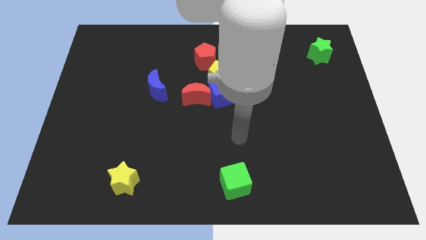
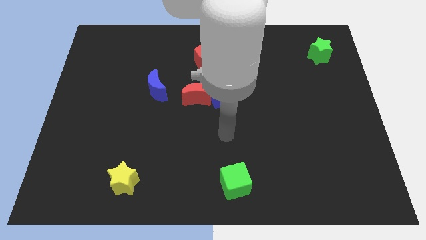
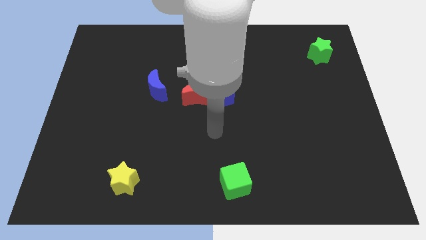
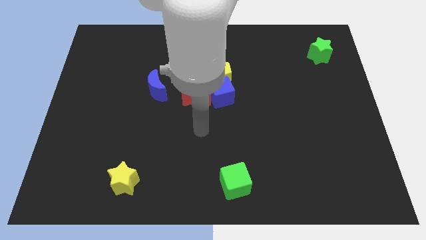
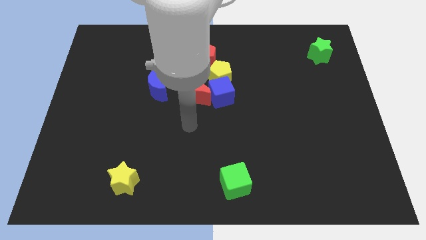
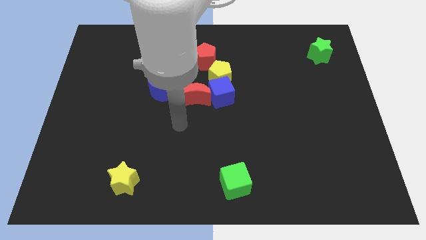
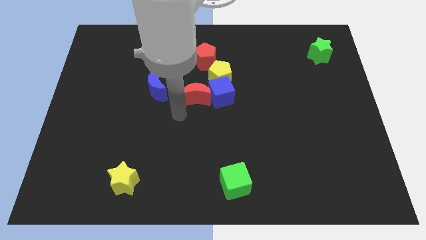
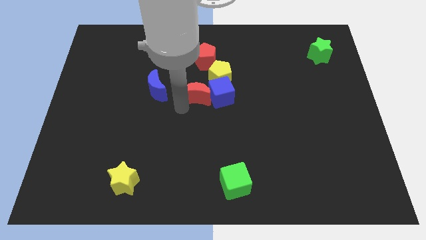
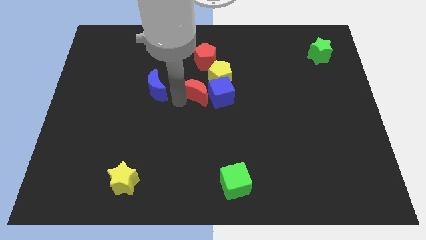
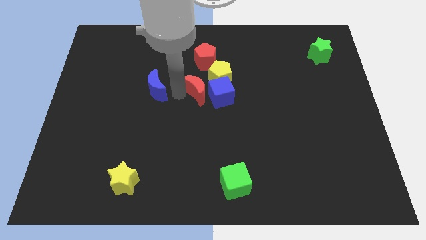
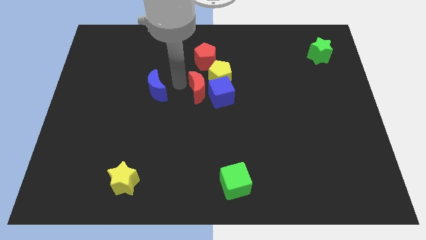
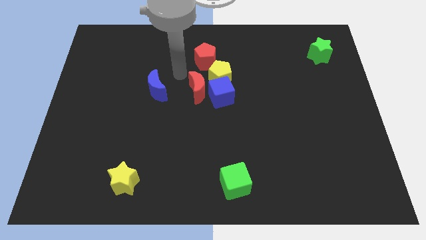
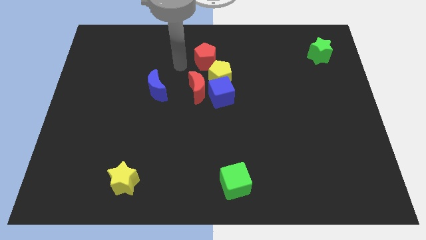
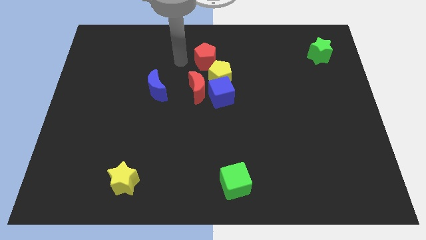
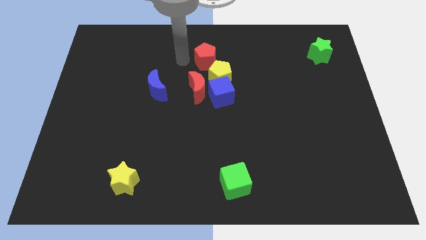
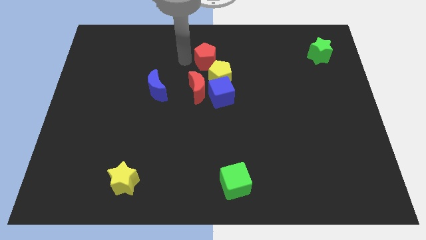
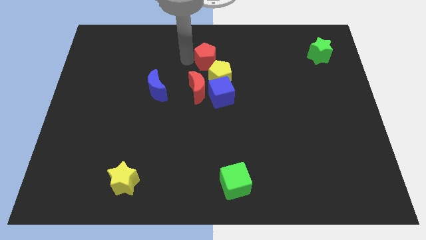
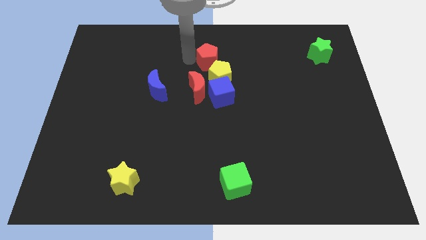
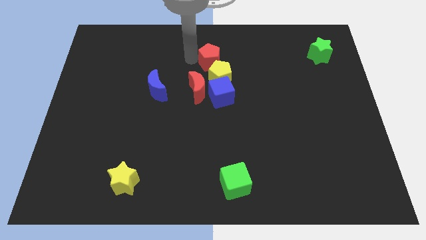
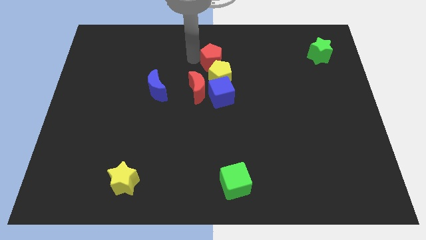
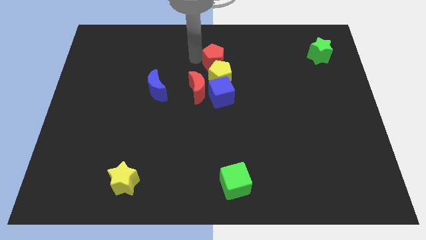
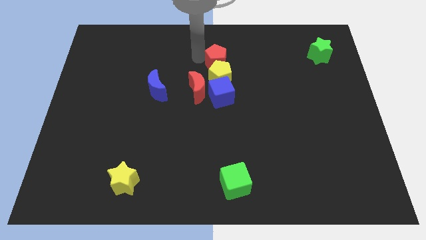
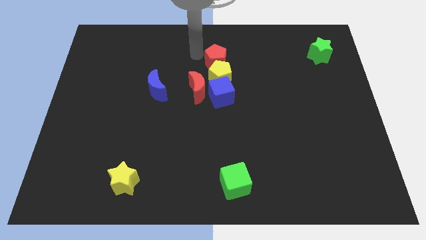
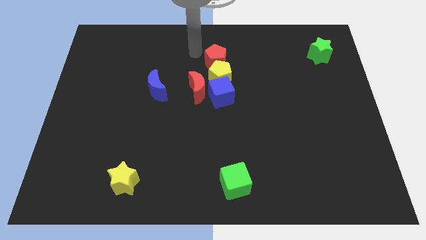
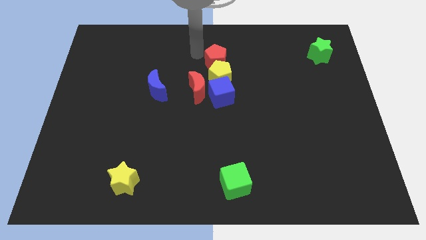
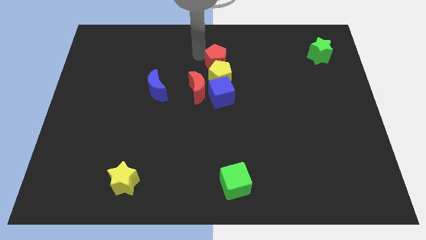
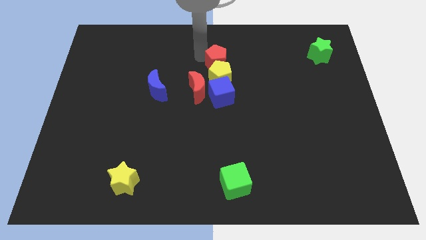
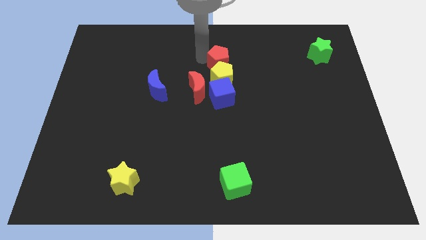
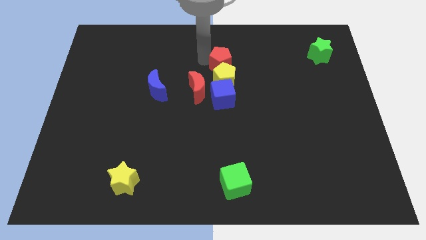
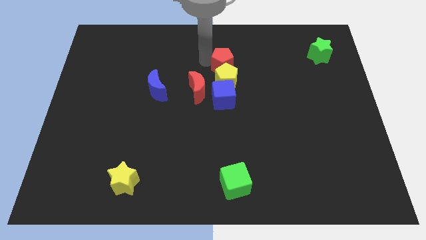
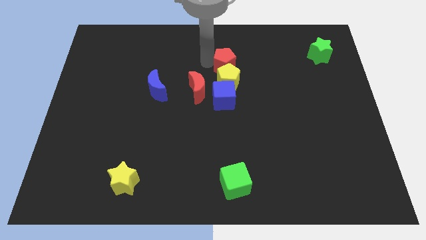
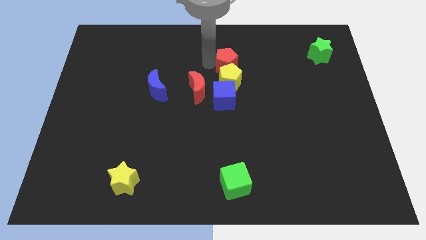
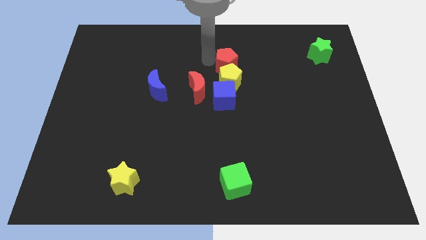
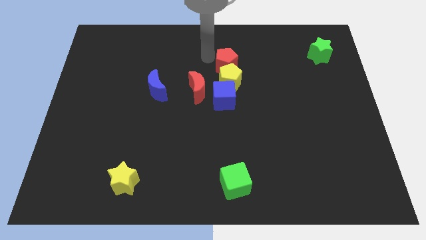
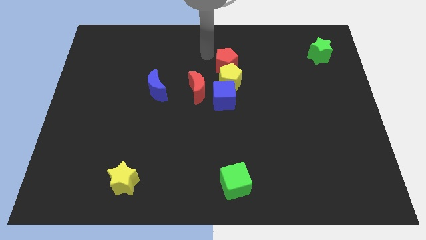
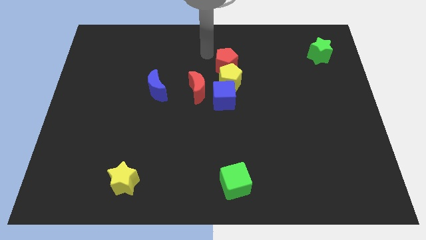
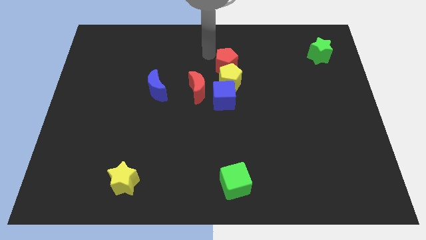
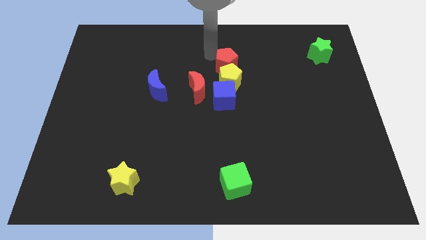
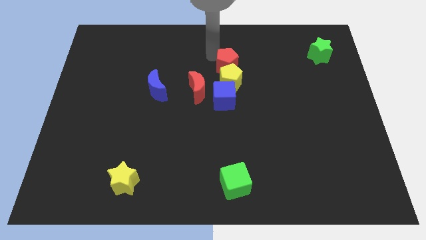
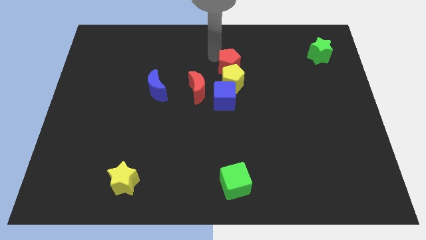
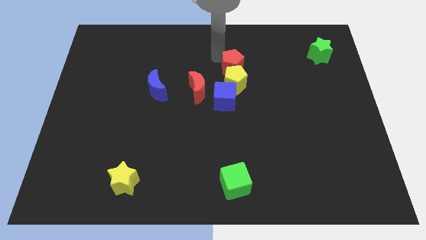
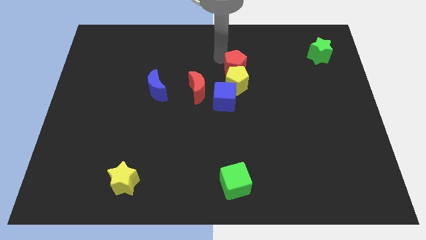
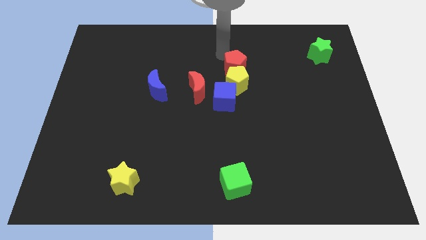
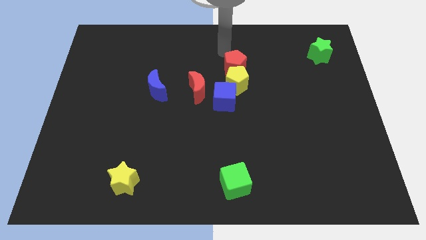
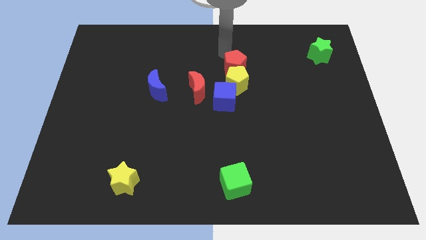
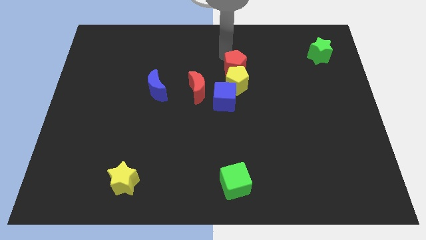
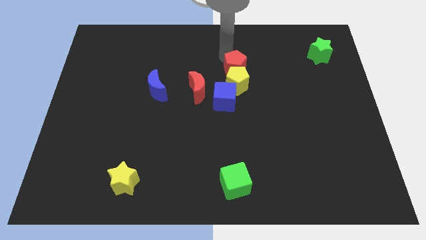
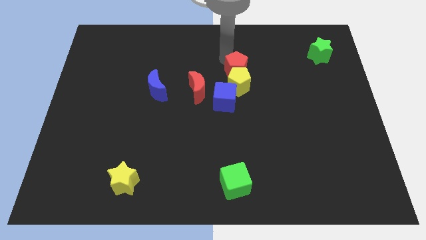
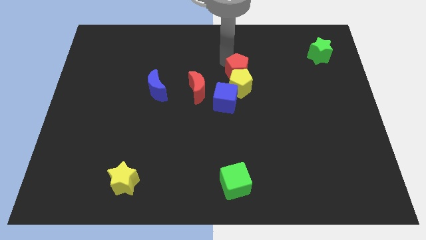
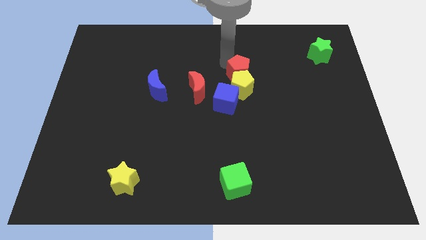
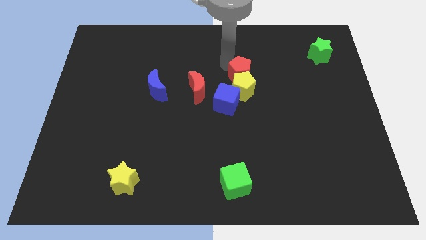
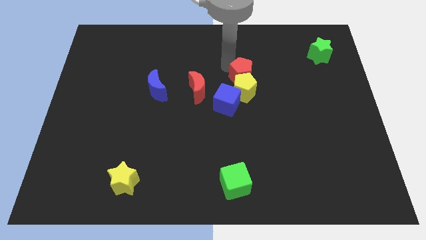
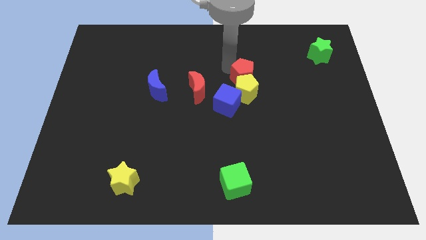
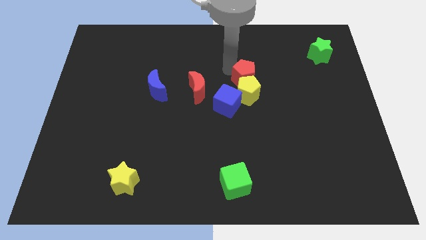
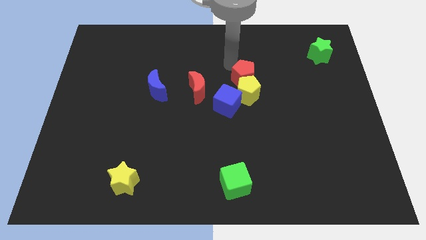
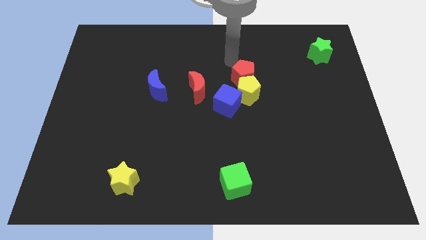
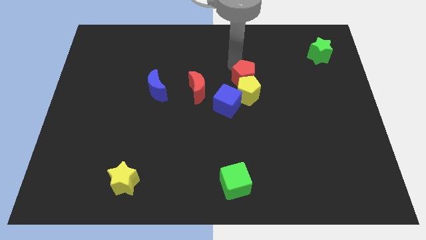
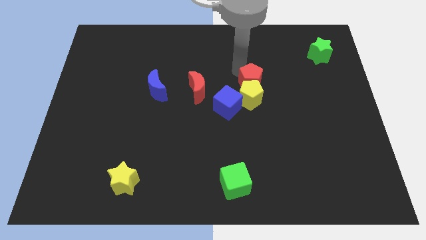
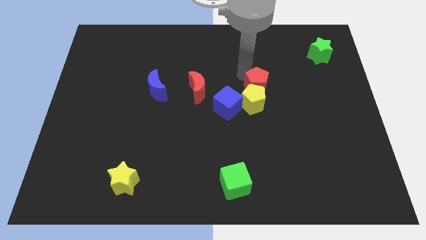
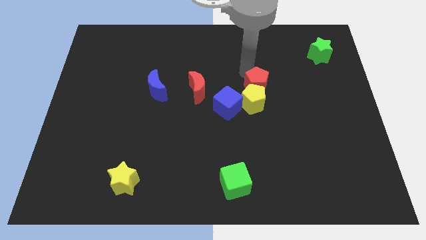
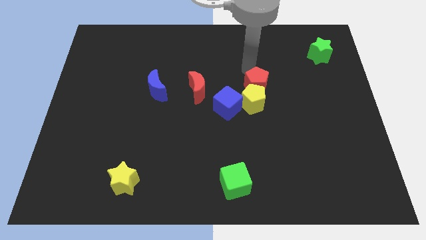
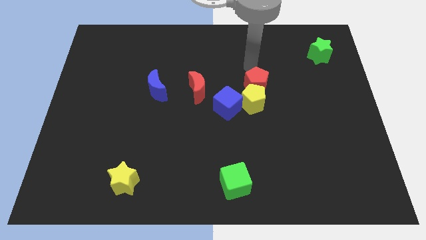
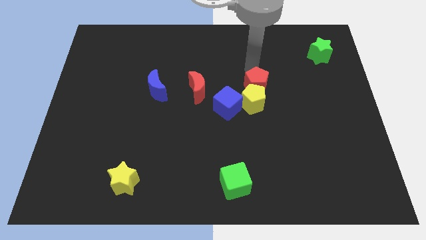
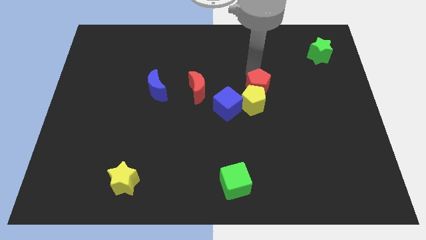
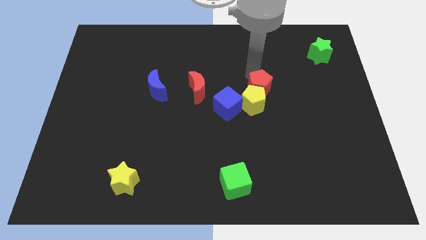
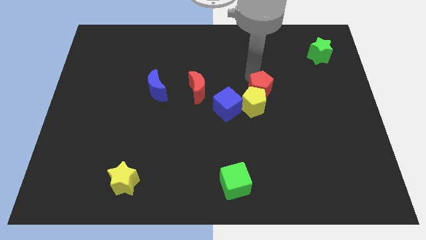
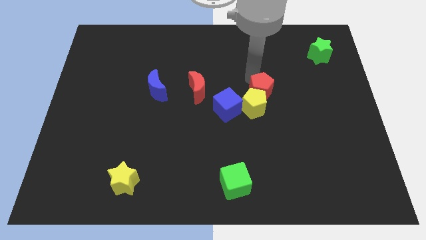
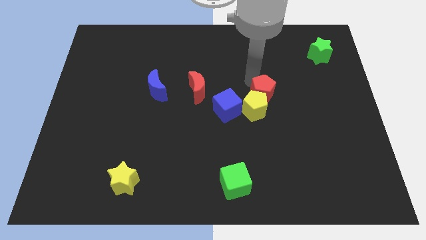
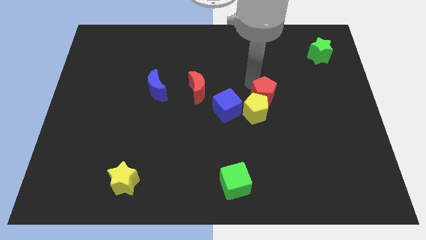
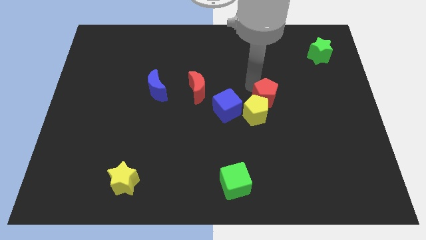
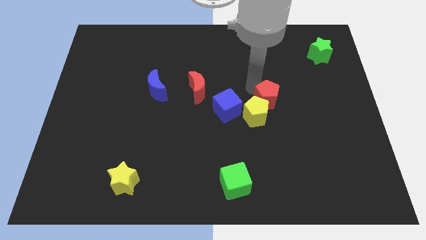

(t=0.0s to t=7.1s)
push the red pentagon down and to the right diagonally

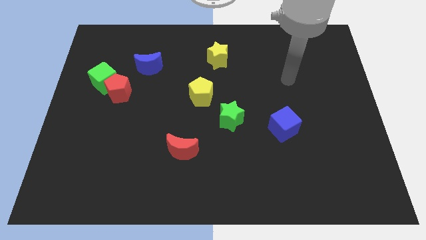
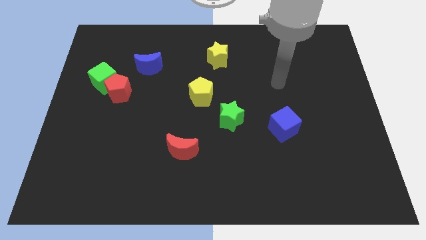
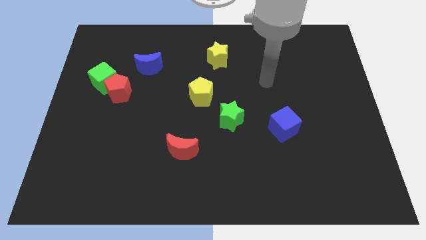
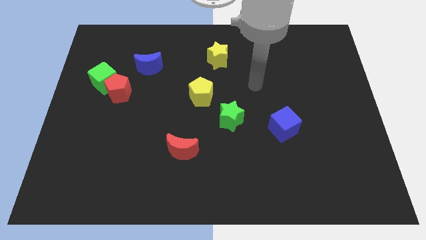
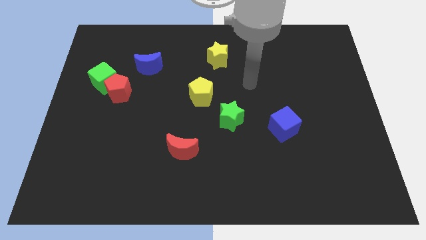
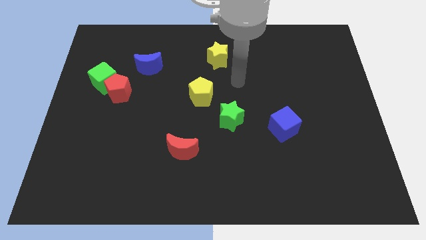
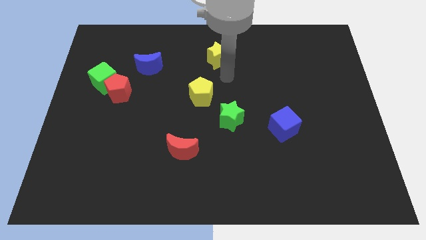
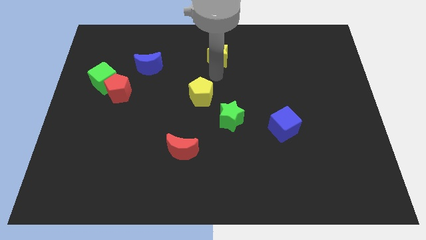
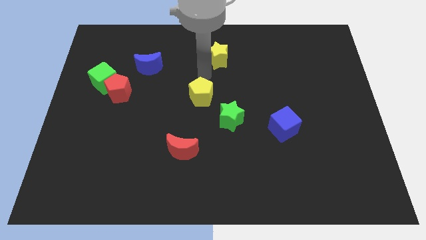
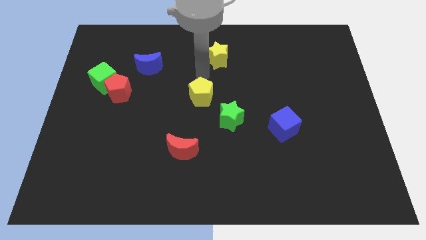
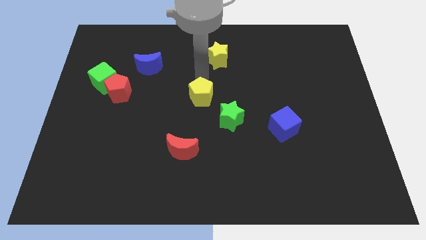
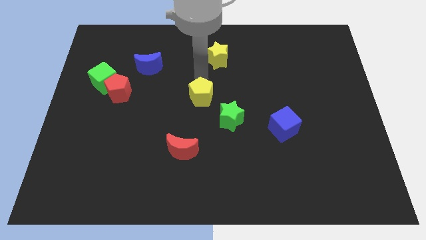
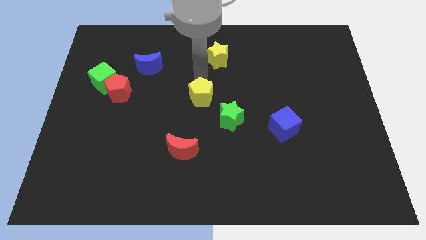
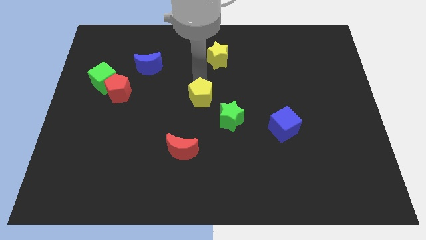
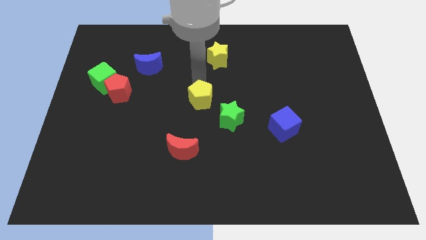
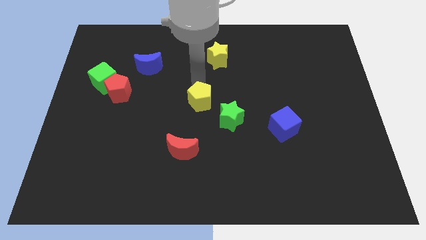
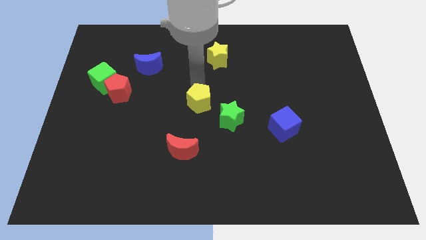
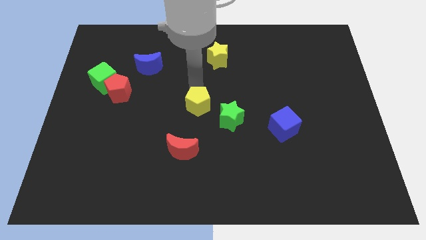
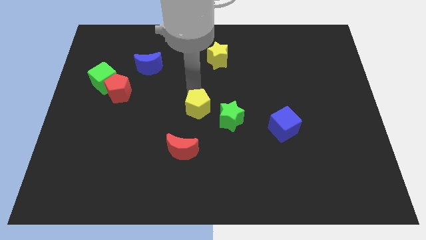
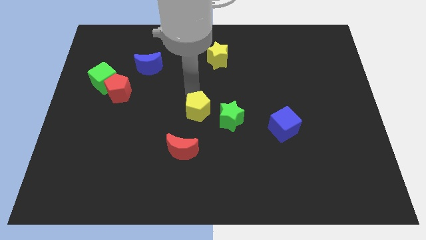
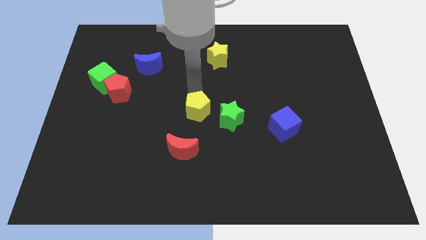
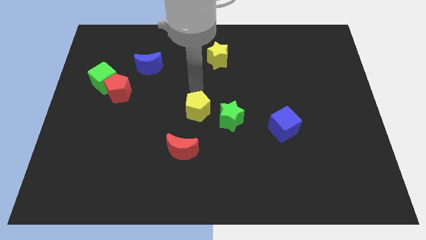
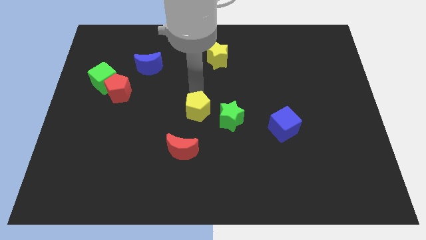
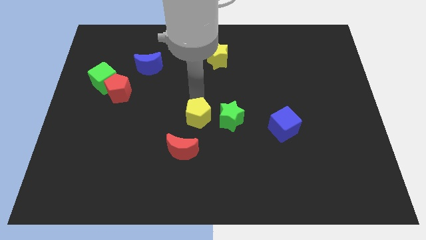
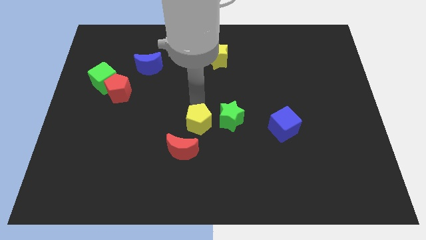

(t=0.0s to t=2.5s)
slightly move the yellow pentagon down
